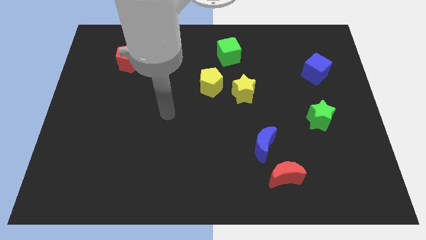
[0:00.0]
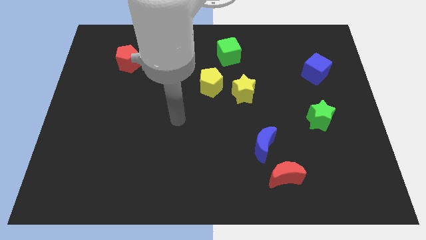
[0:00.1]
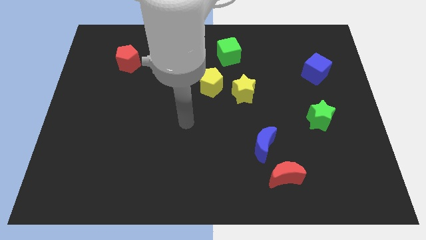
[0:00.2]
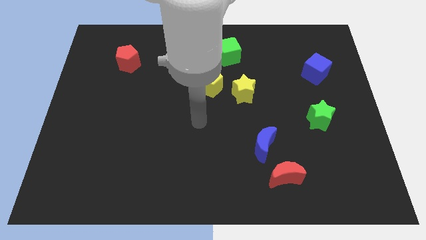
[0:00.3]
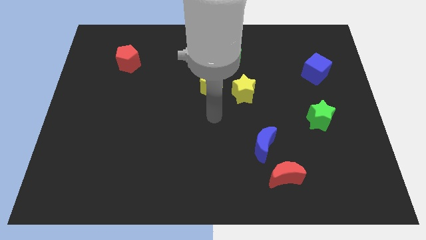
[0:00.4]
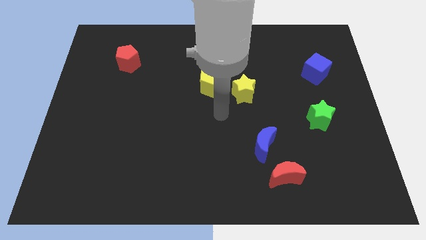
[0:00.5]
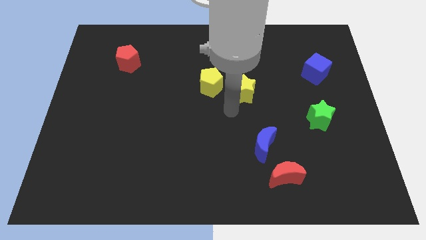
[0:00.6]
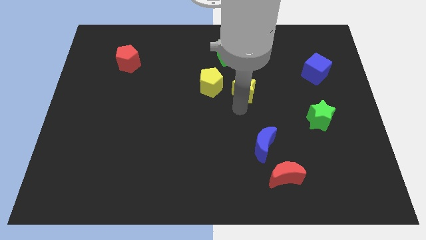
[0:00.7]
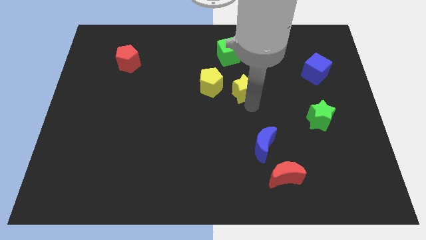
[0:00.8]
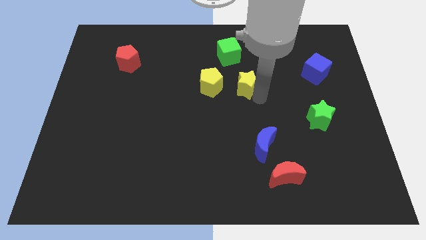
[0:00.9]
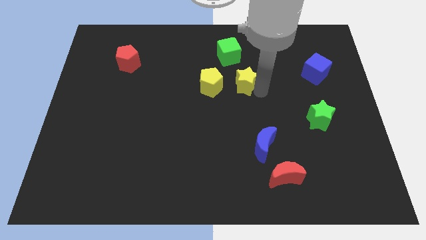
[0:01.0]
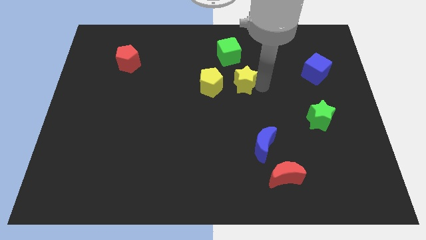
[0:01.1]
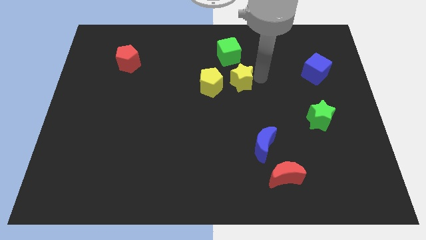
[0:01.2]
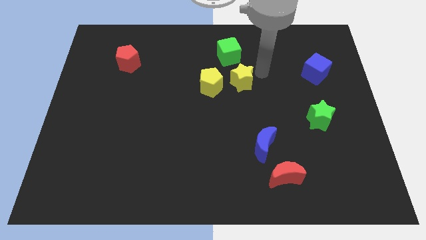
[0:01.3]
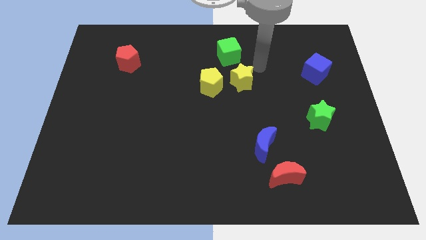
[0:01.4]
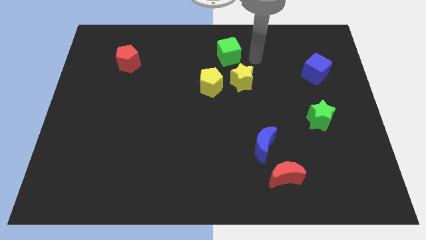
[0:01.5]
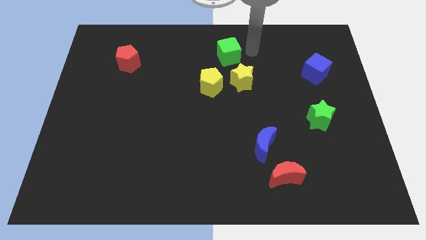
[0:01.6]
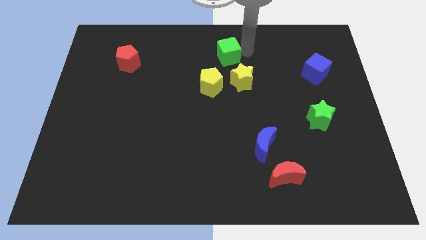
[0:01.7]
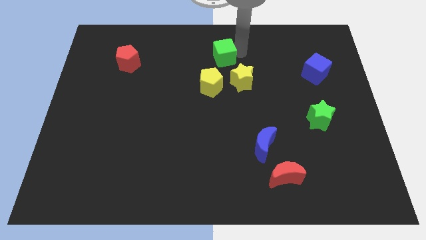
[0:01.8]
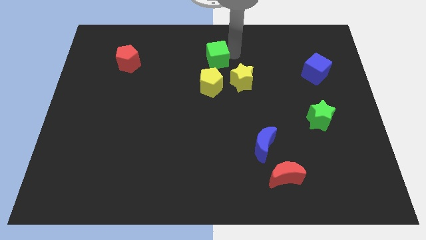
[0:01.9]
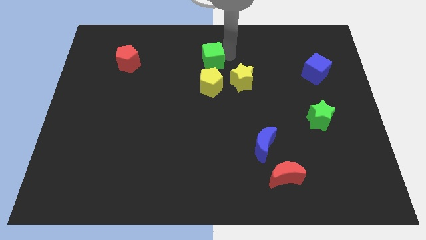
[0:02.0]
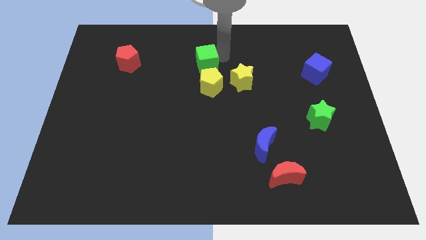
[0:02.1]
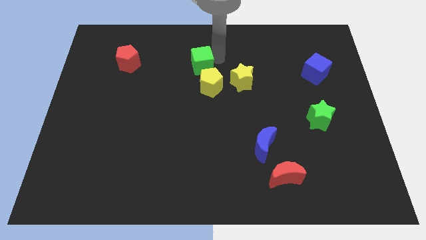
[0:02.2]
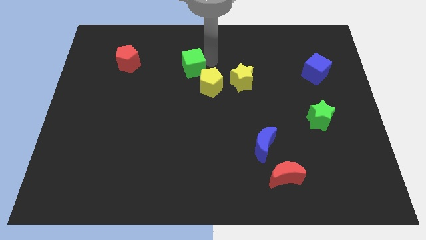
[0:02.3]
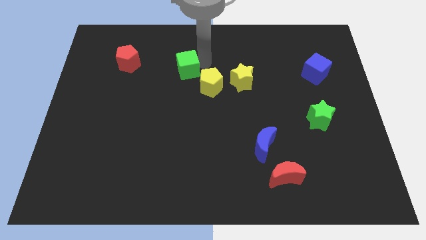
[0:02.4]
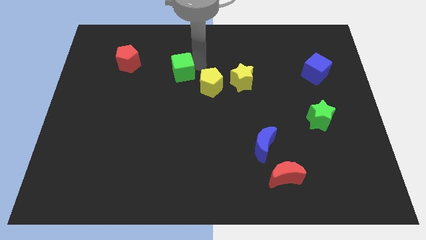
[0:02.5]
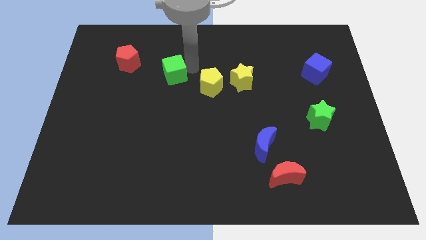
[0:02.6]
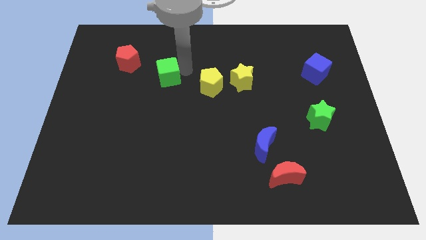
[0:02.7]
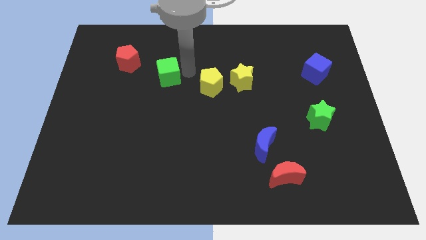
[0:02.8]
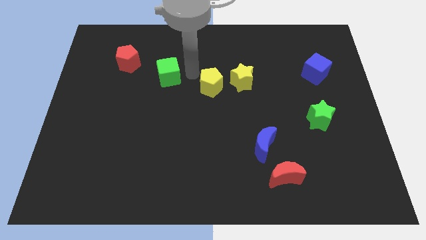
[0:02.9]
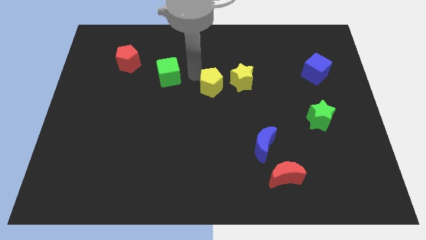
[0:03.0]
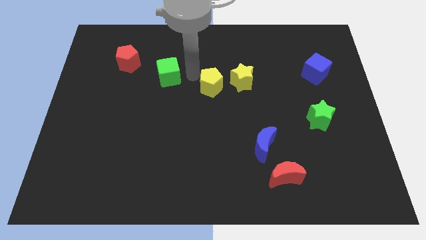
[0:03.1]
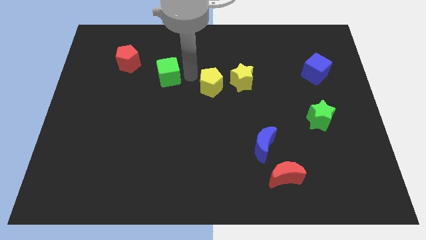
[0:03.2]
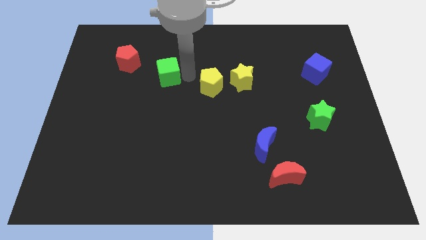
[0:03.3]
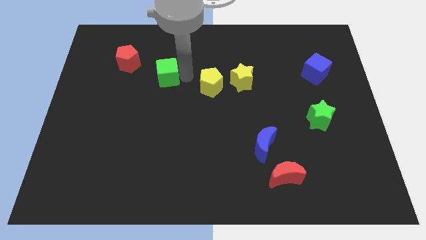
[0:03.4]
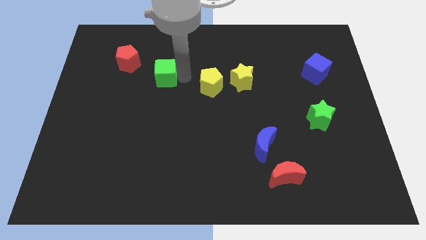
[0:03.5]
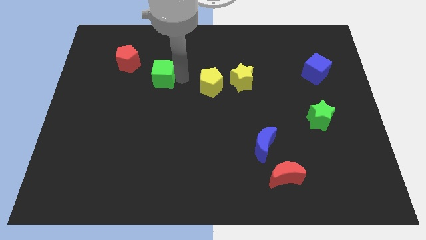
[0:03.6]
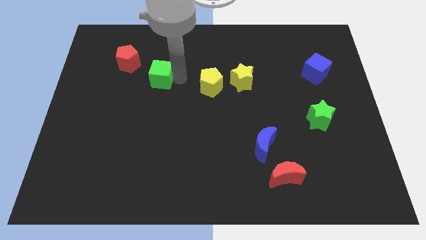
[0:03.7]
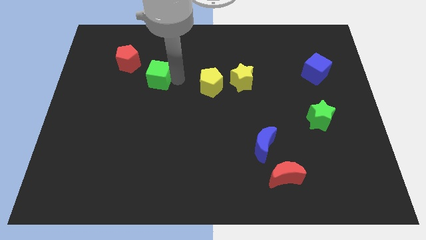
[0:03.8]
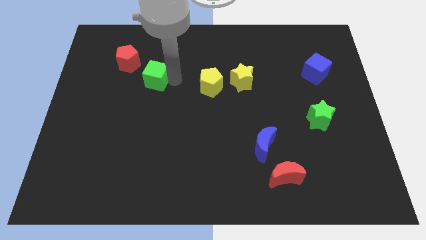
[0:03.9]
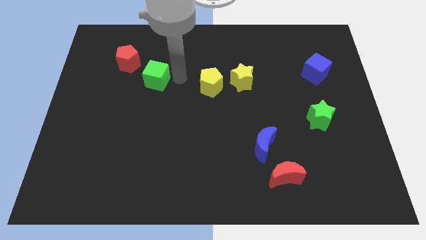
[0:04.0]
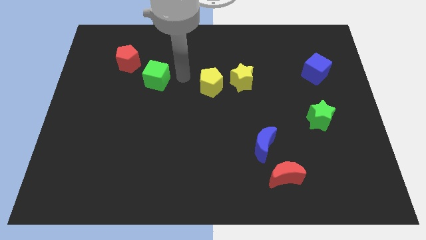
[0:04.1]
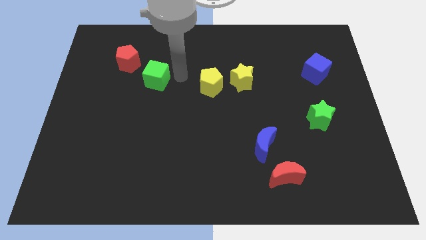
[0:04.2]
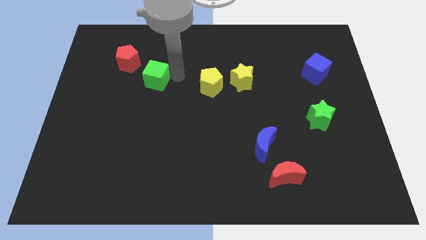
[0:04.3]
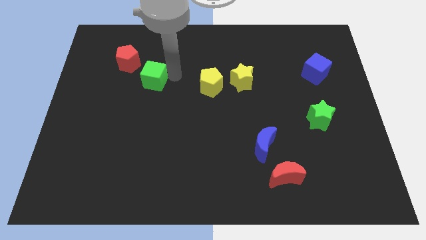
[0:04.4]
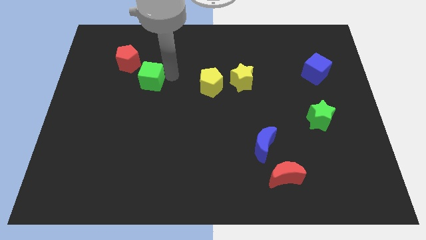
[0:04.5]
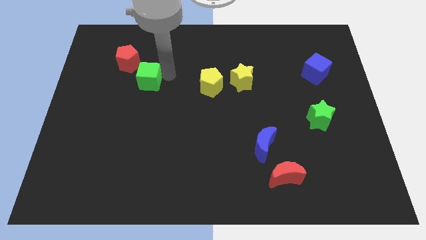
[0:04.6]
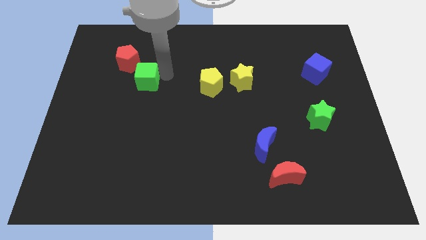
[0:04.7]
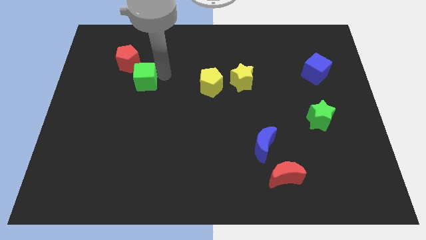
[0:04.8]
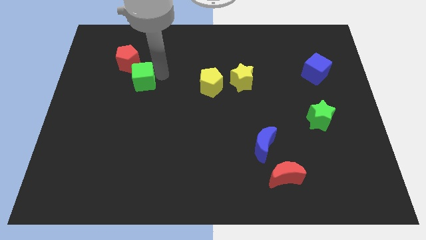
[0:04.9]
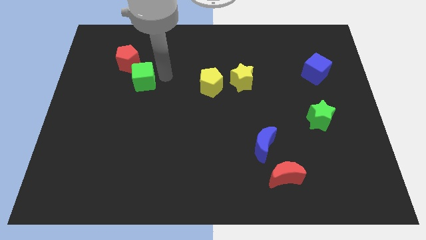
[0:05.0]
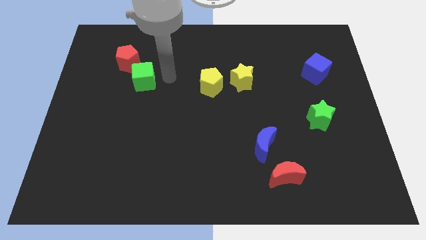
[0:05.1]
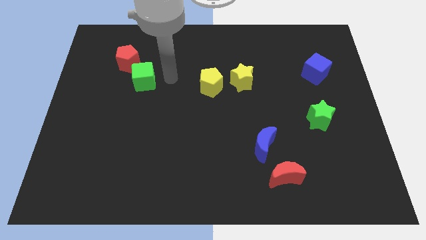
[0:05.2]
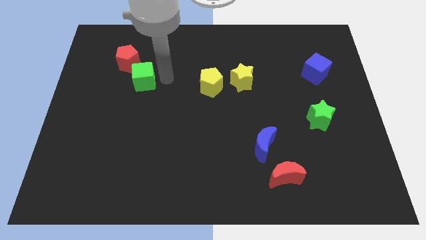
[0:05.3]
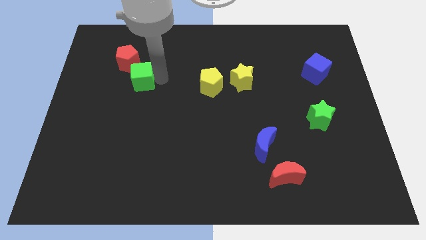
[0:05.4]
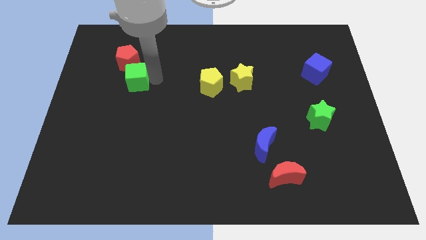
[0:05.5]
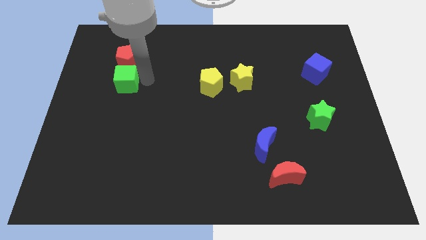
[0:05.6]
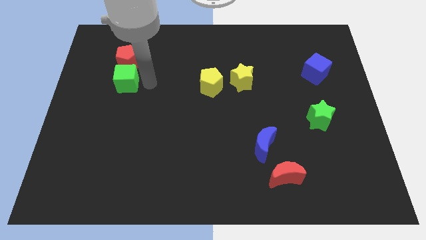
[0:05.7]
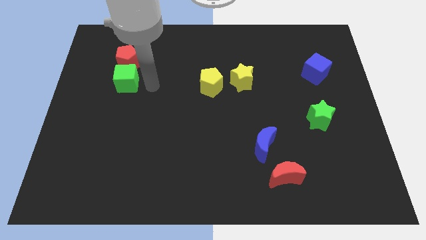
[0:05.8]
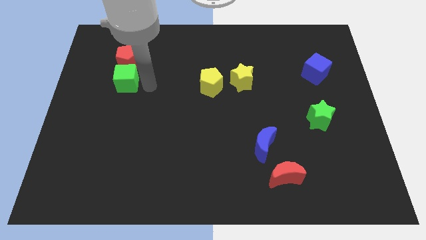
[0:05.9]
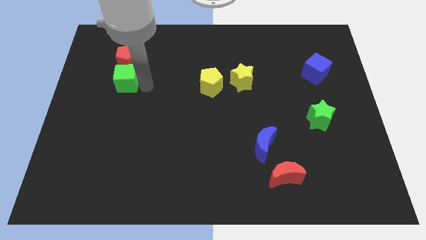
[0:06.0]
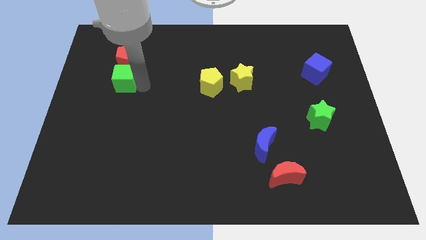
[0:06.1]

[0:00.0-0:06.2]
slide the green cube to the bottom left side of the red pentagon

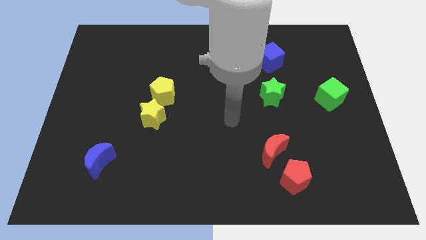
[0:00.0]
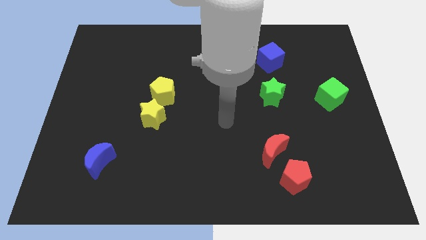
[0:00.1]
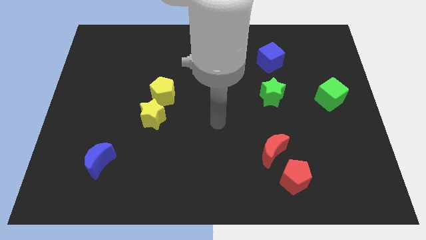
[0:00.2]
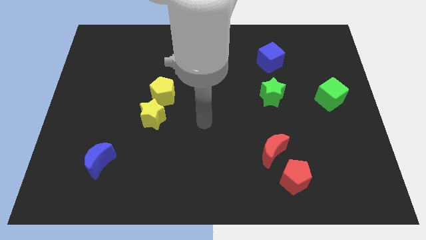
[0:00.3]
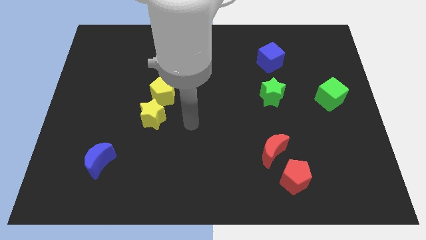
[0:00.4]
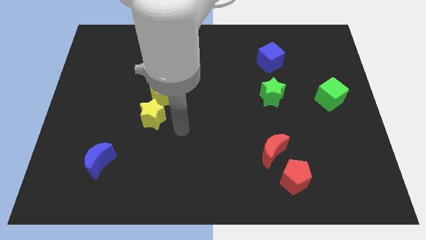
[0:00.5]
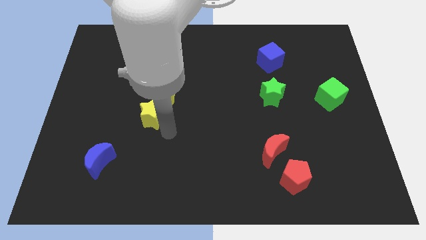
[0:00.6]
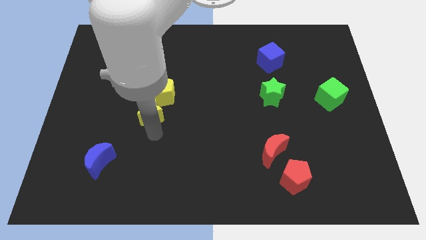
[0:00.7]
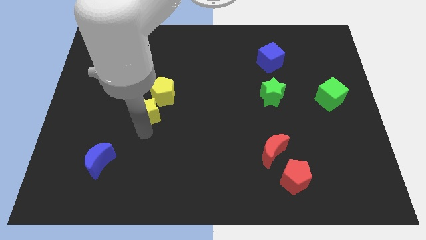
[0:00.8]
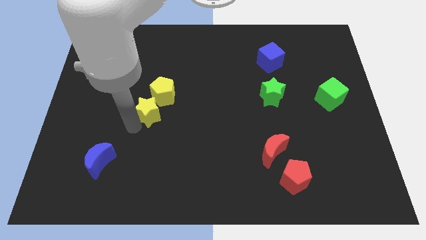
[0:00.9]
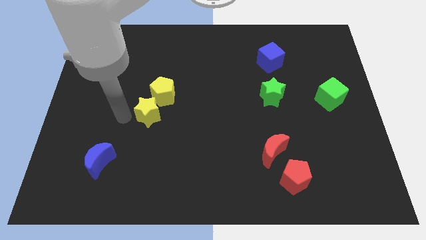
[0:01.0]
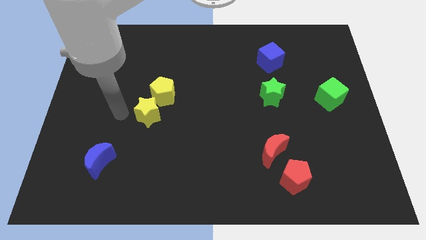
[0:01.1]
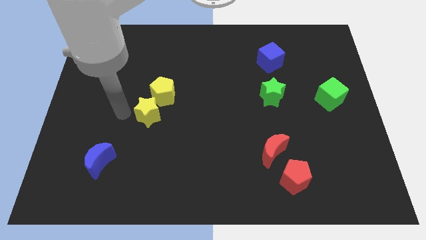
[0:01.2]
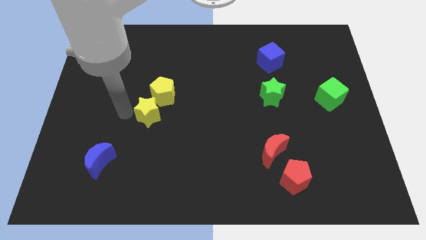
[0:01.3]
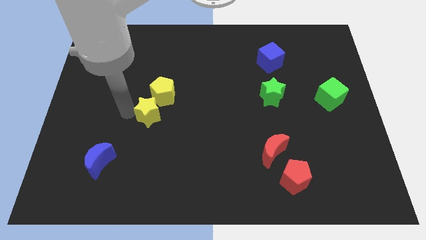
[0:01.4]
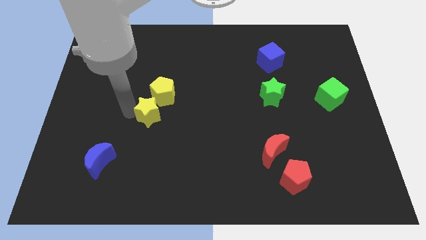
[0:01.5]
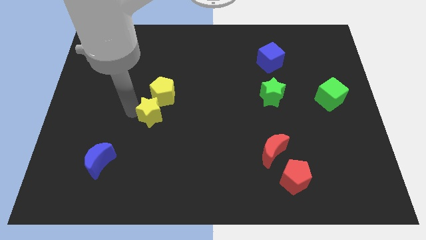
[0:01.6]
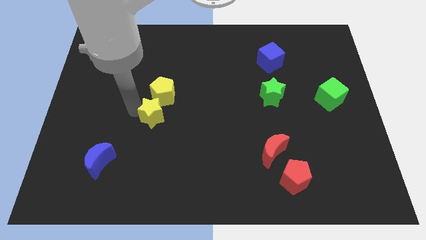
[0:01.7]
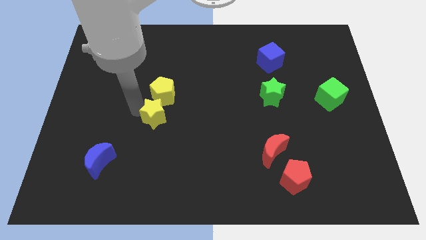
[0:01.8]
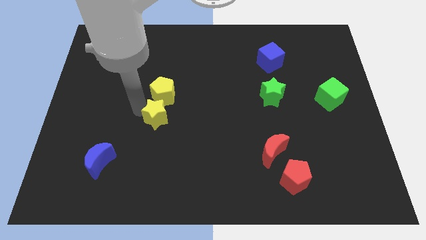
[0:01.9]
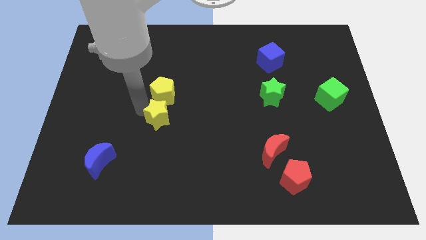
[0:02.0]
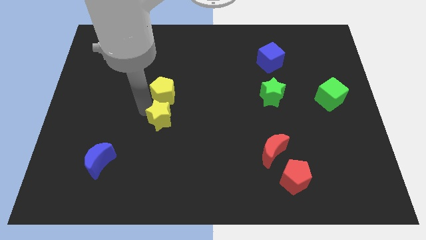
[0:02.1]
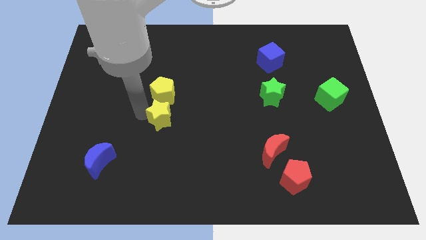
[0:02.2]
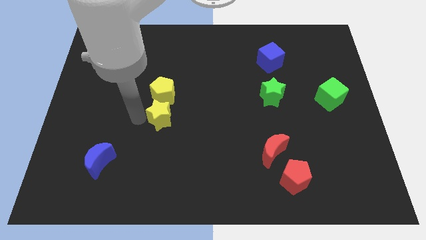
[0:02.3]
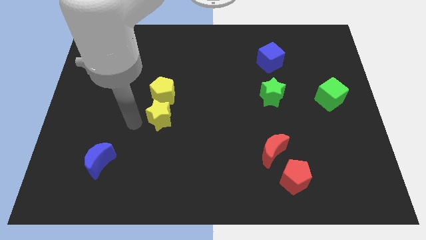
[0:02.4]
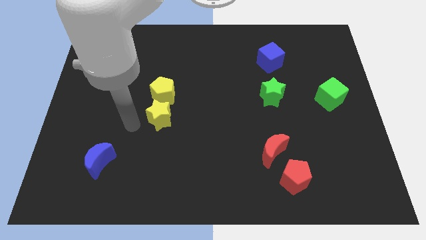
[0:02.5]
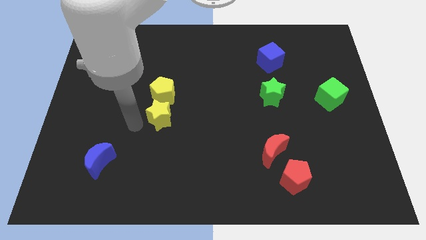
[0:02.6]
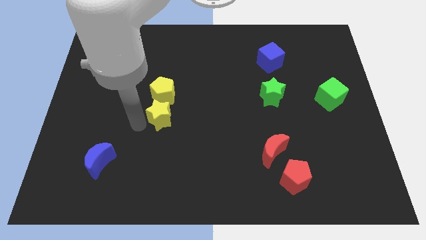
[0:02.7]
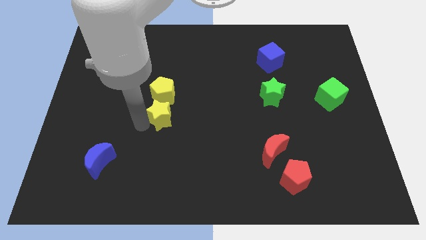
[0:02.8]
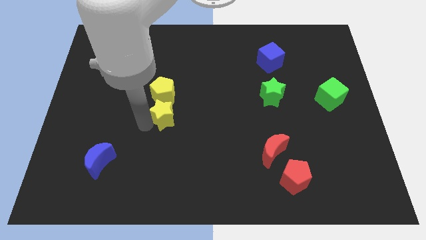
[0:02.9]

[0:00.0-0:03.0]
move the yellow star diagonally down and to the right of the yellow pentagon
